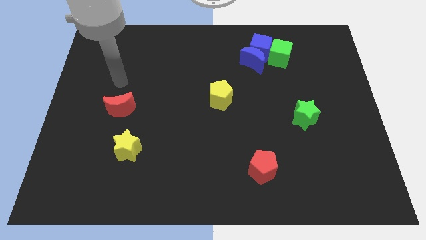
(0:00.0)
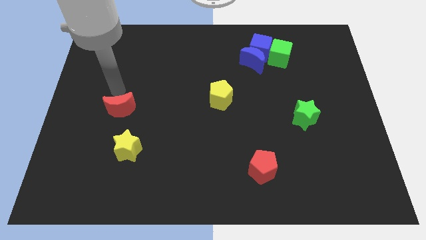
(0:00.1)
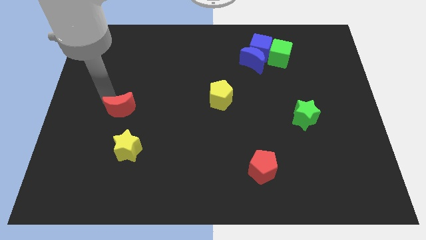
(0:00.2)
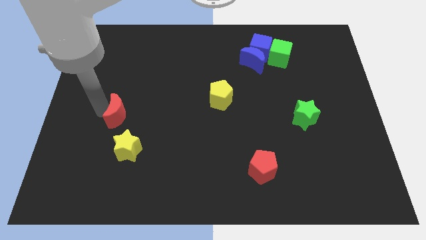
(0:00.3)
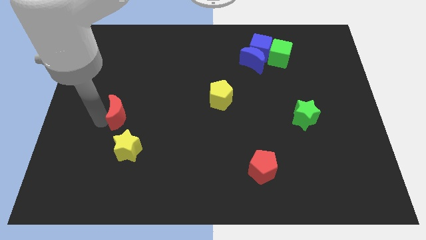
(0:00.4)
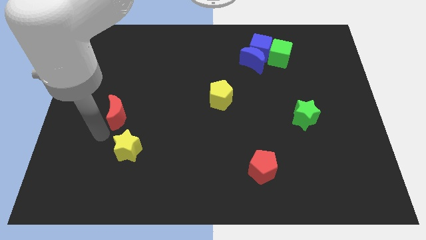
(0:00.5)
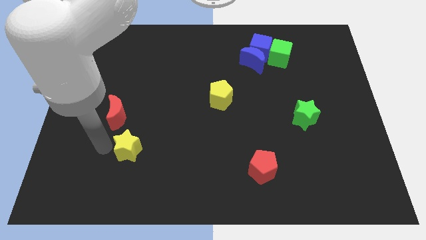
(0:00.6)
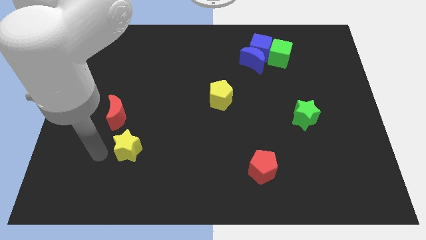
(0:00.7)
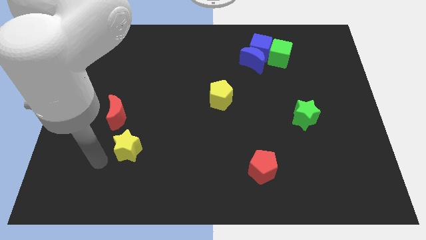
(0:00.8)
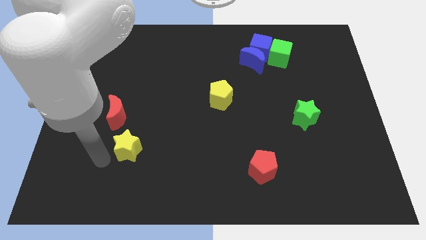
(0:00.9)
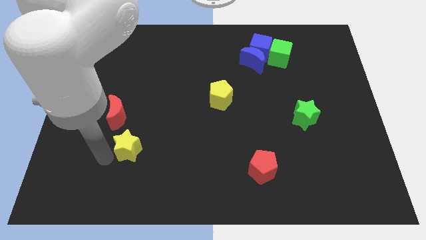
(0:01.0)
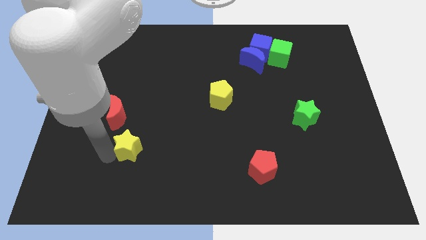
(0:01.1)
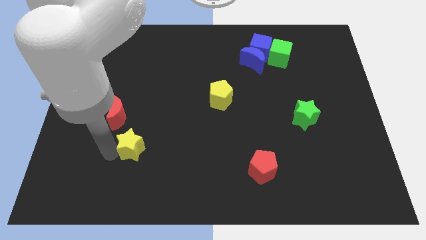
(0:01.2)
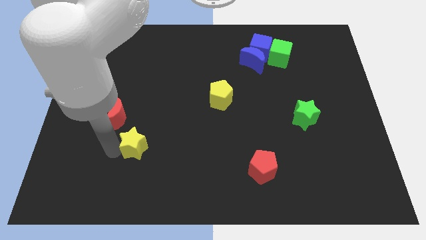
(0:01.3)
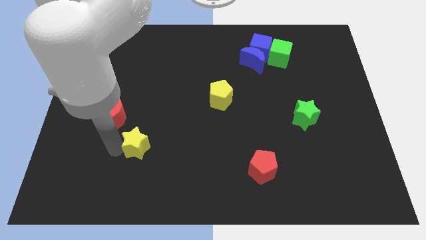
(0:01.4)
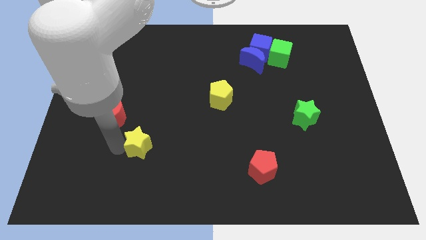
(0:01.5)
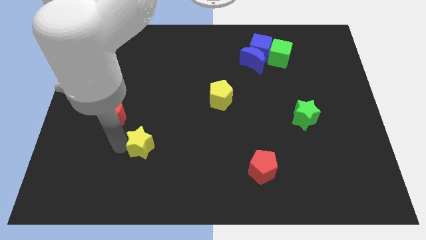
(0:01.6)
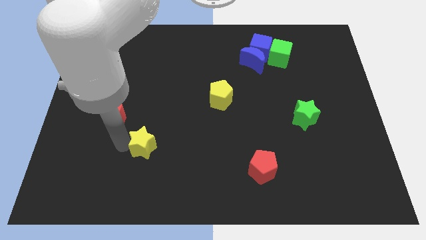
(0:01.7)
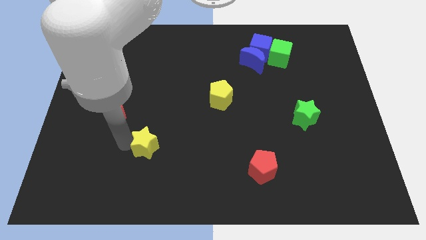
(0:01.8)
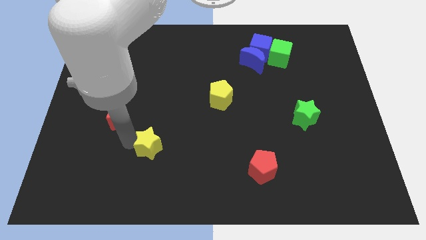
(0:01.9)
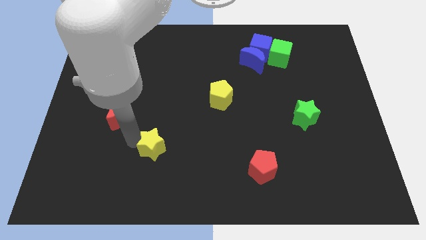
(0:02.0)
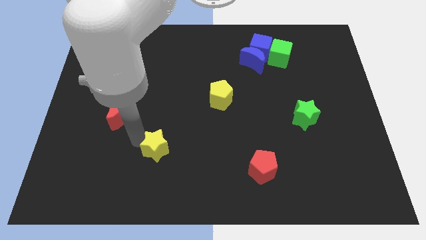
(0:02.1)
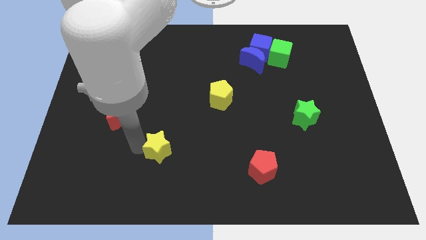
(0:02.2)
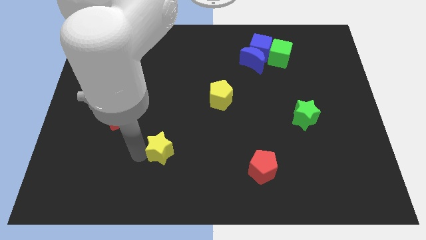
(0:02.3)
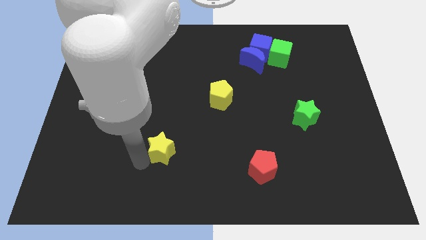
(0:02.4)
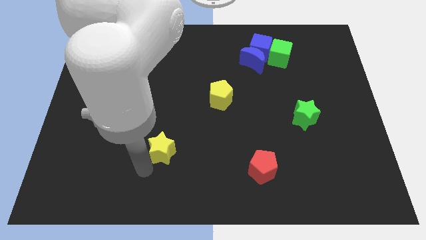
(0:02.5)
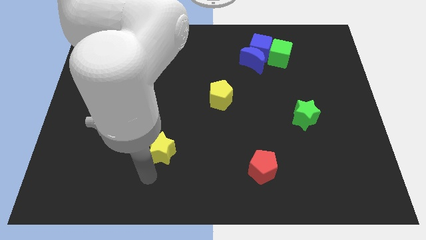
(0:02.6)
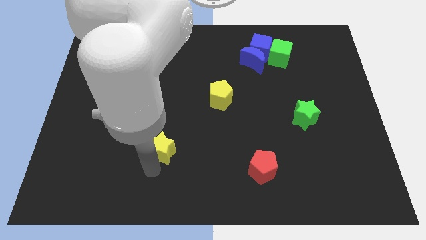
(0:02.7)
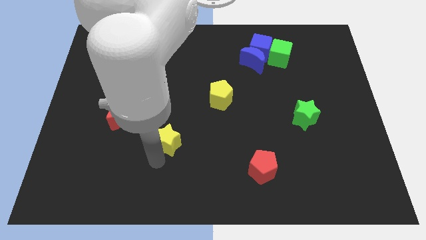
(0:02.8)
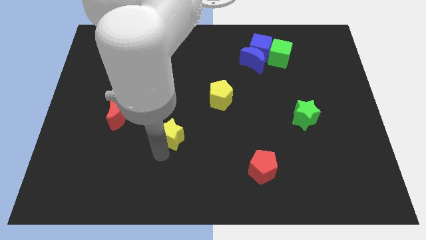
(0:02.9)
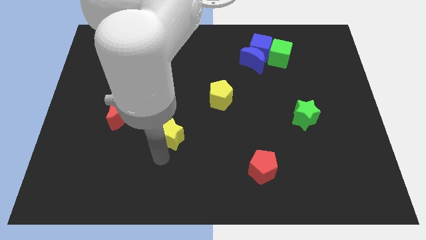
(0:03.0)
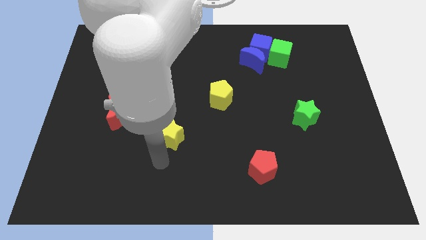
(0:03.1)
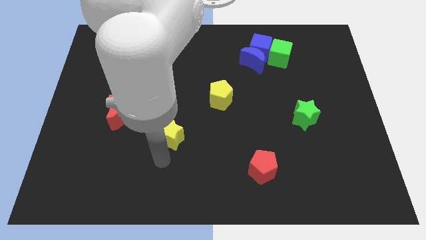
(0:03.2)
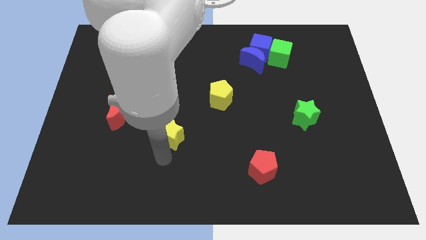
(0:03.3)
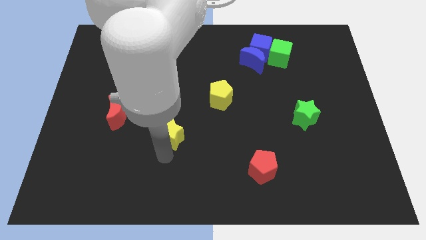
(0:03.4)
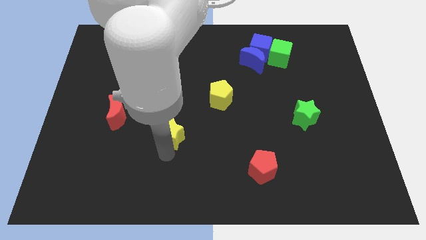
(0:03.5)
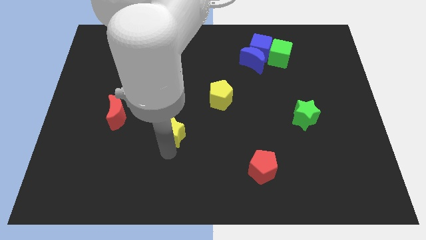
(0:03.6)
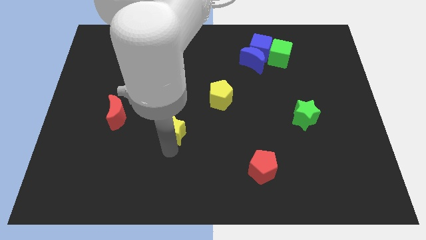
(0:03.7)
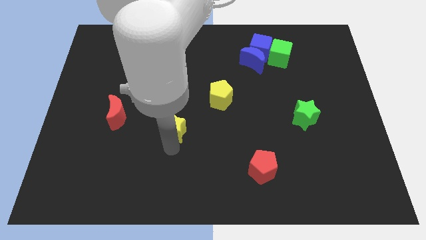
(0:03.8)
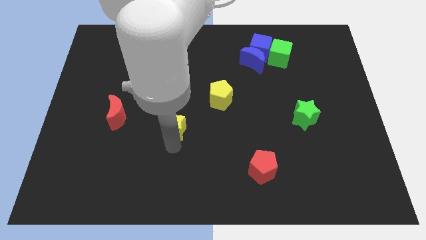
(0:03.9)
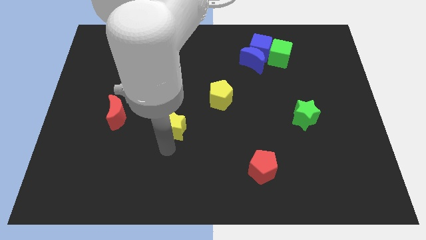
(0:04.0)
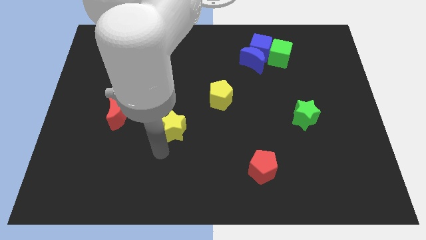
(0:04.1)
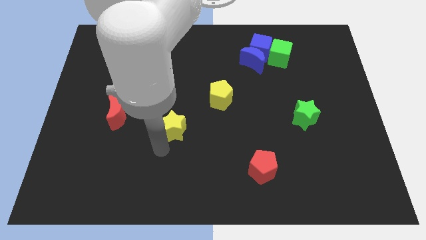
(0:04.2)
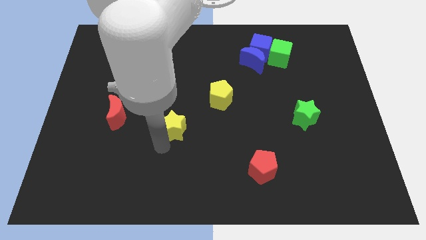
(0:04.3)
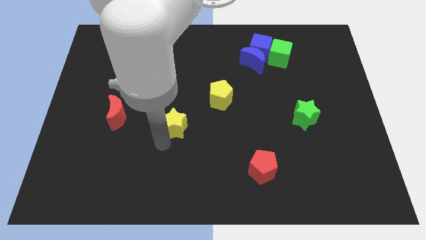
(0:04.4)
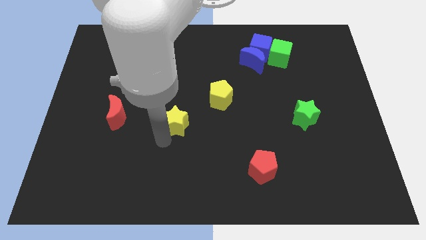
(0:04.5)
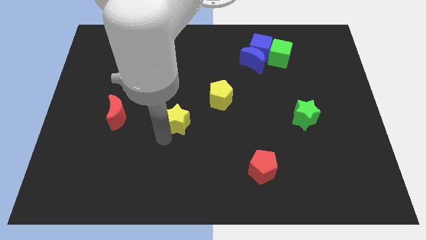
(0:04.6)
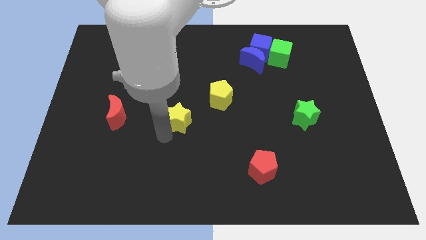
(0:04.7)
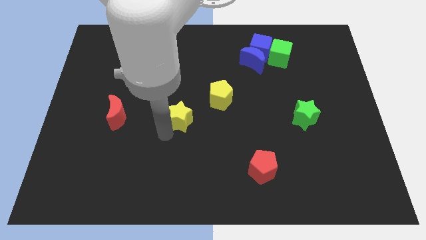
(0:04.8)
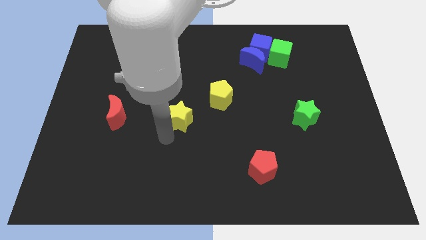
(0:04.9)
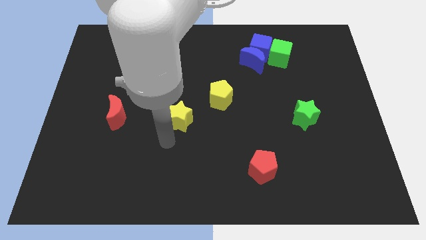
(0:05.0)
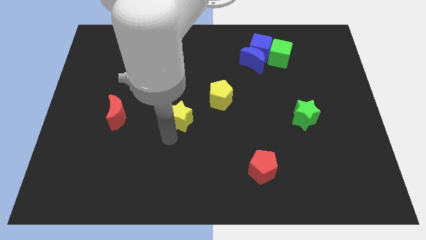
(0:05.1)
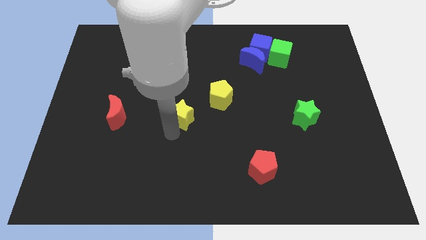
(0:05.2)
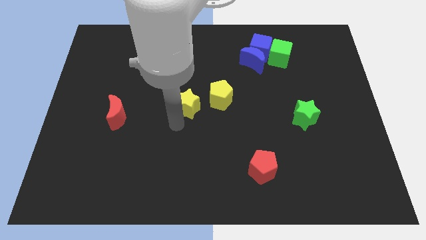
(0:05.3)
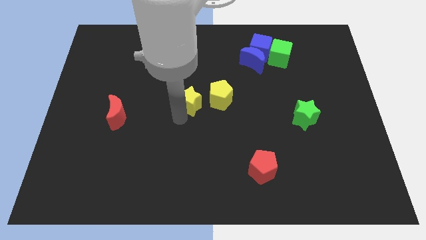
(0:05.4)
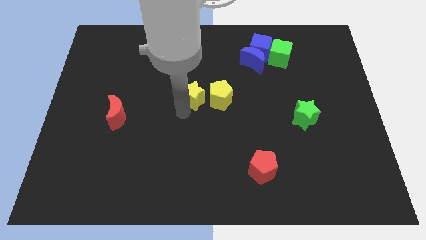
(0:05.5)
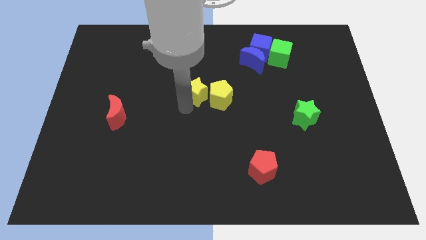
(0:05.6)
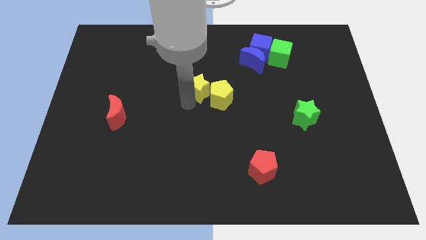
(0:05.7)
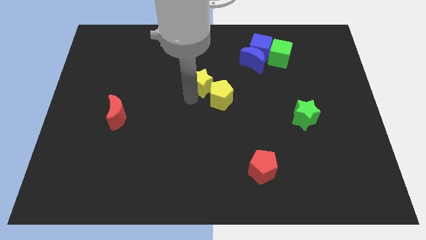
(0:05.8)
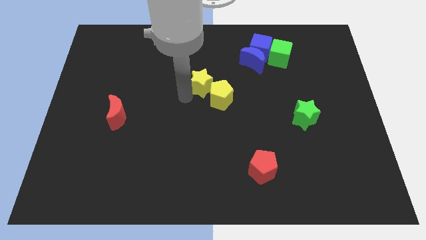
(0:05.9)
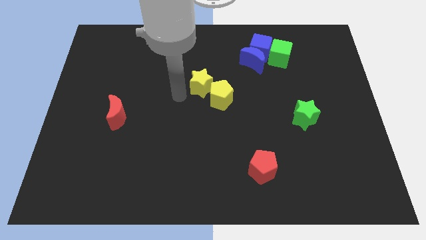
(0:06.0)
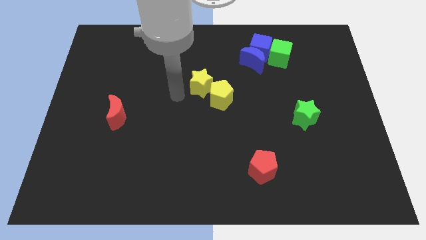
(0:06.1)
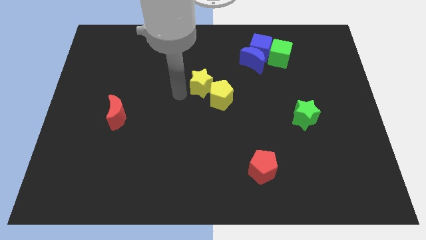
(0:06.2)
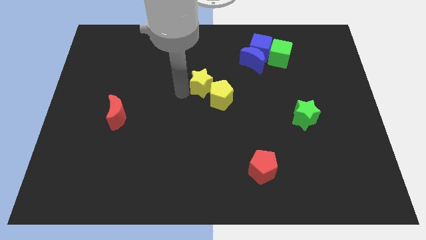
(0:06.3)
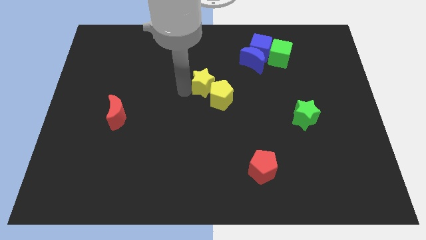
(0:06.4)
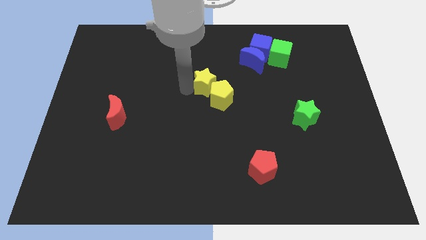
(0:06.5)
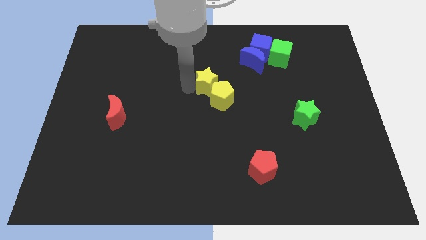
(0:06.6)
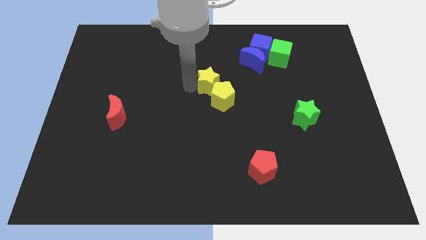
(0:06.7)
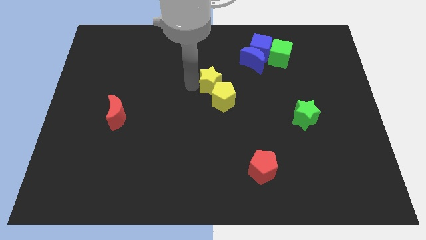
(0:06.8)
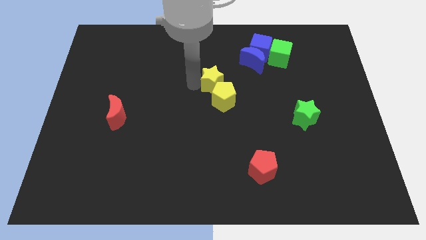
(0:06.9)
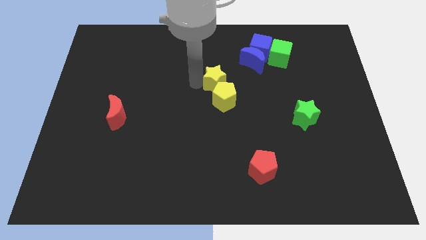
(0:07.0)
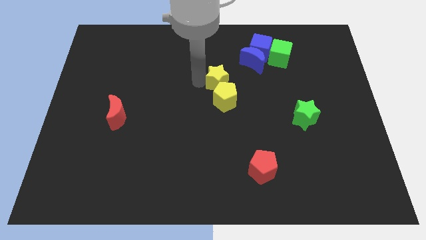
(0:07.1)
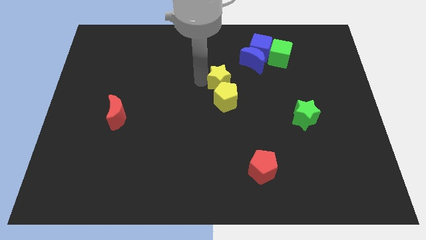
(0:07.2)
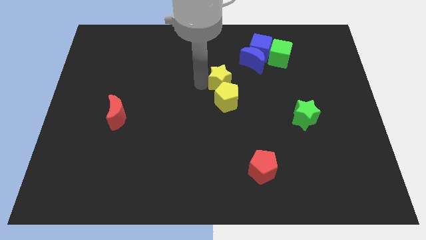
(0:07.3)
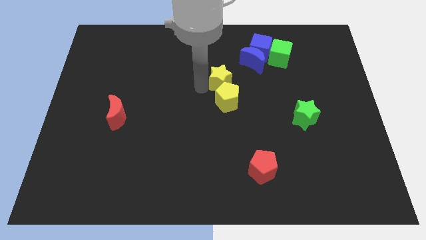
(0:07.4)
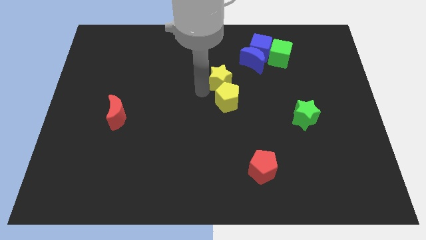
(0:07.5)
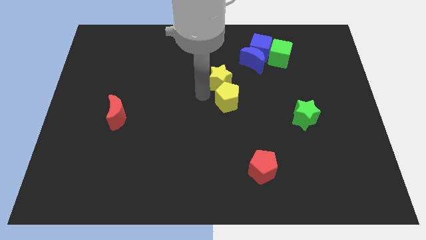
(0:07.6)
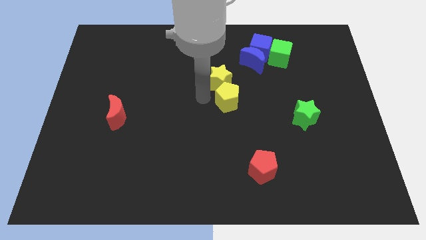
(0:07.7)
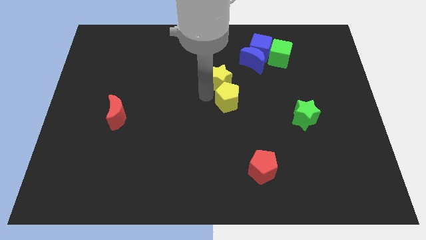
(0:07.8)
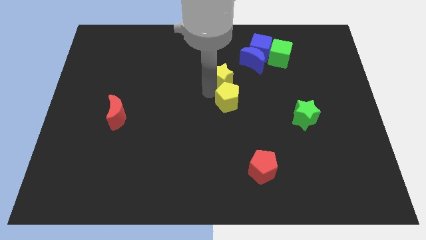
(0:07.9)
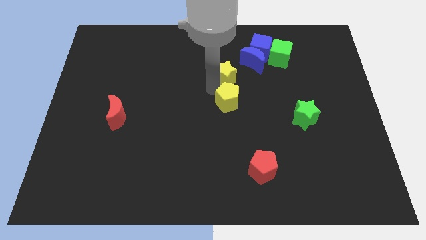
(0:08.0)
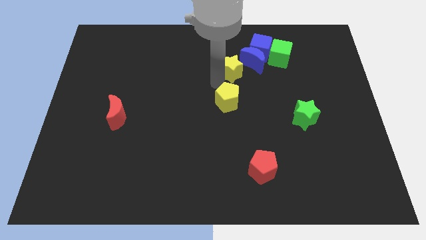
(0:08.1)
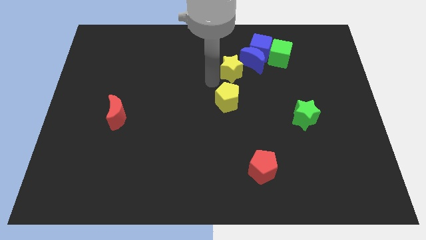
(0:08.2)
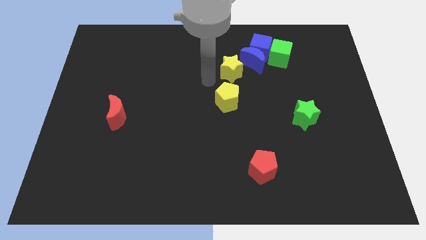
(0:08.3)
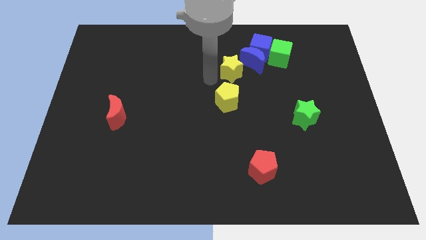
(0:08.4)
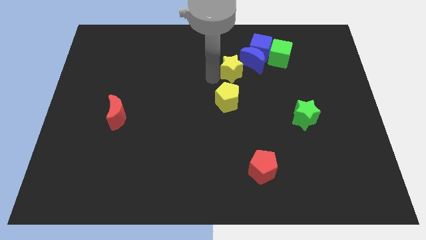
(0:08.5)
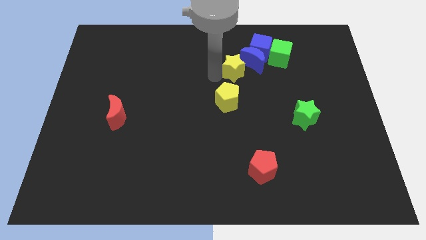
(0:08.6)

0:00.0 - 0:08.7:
put the yellow star towards the blue moon
